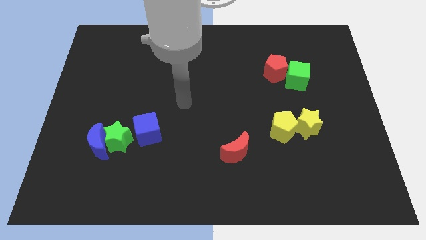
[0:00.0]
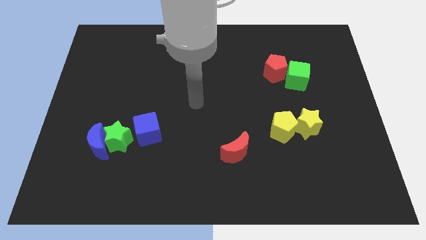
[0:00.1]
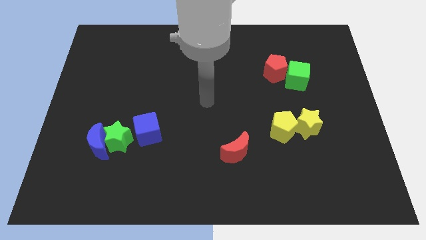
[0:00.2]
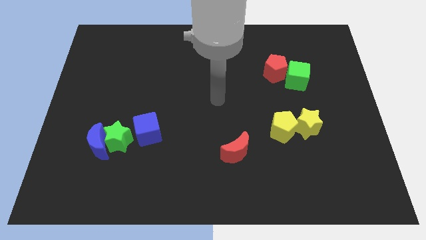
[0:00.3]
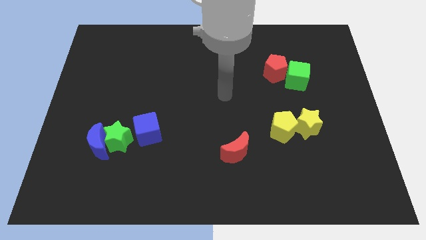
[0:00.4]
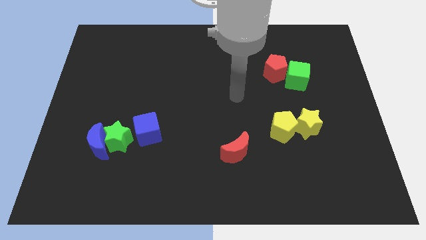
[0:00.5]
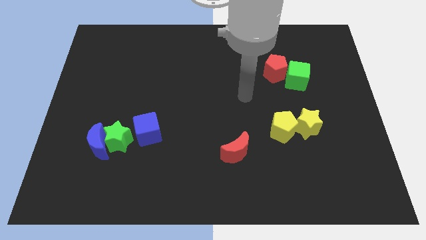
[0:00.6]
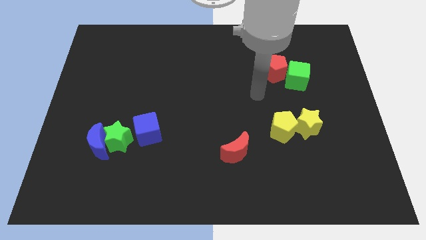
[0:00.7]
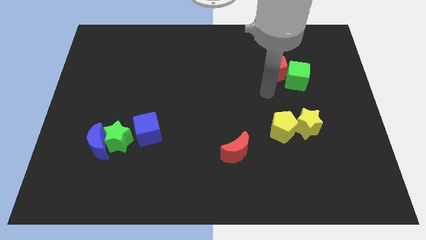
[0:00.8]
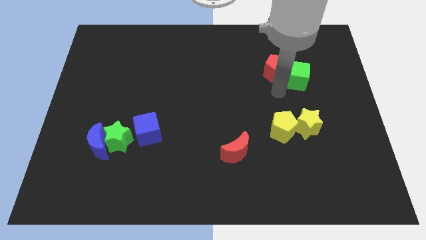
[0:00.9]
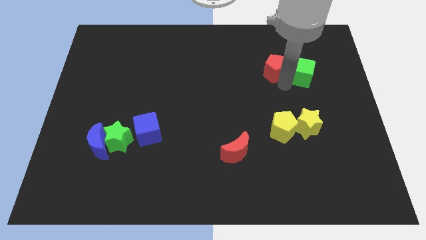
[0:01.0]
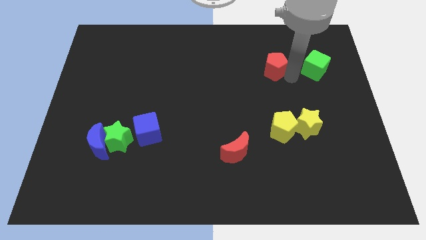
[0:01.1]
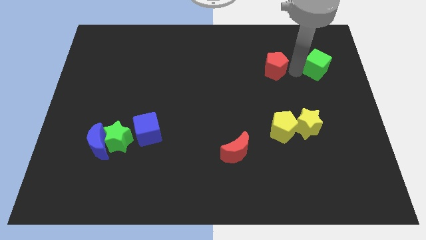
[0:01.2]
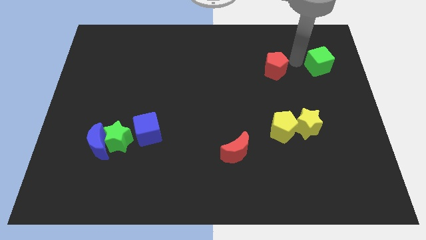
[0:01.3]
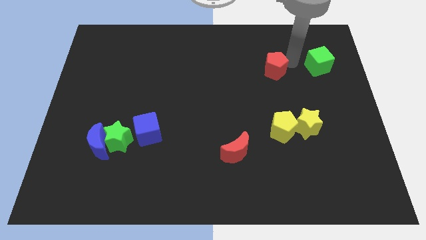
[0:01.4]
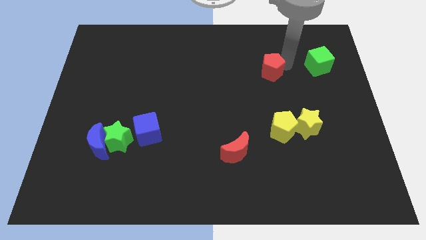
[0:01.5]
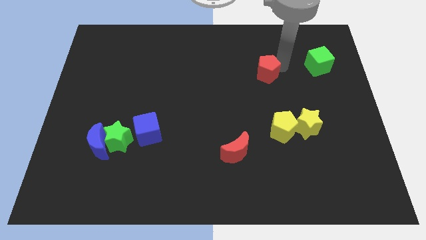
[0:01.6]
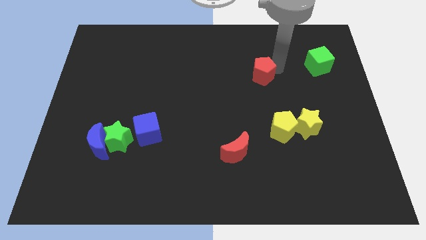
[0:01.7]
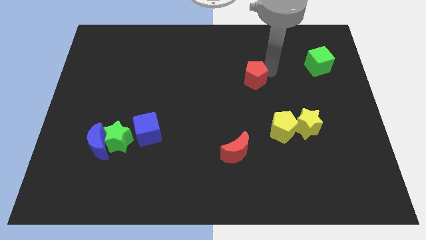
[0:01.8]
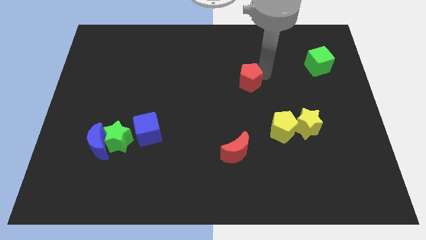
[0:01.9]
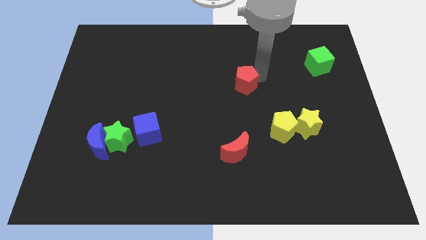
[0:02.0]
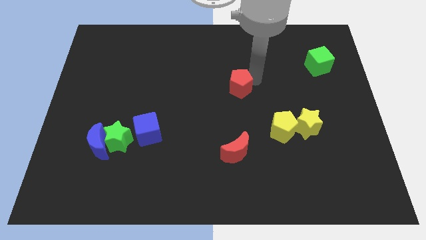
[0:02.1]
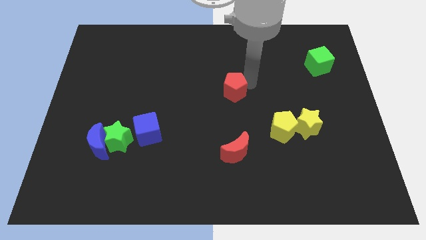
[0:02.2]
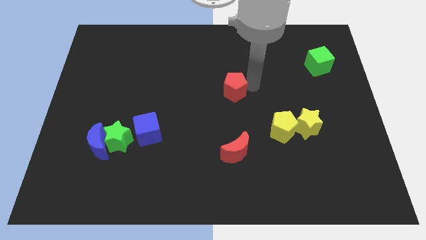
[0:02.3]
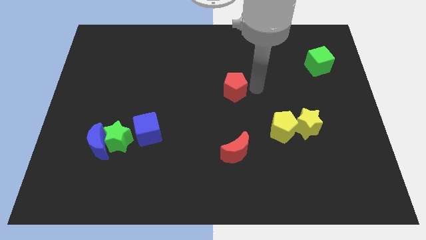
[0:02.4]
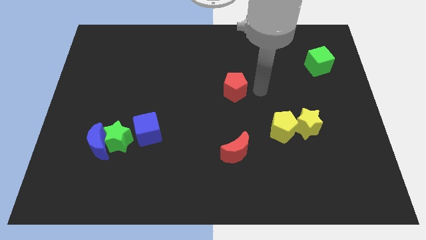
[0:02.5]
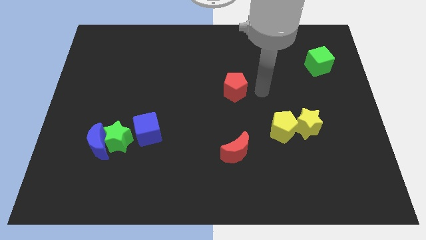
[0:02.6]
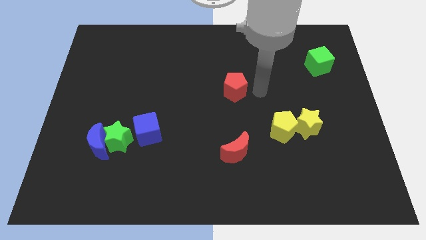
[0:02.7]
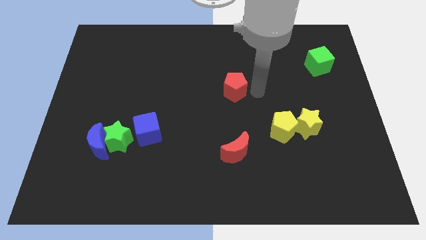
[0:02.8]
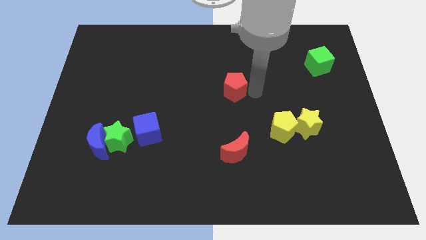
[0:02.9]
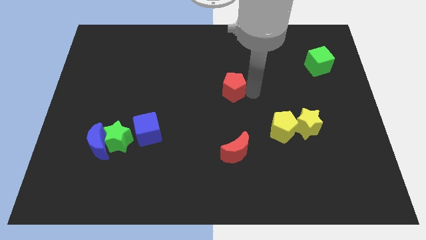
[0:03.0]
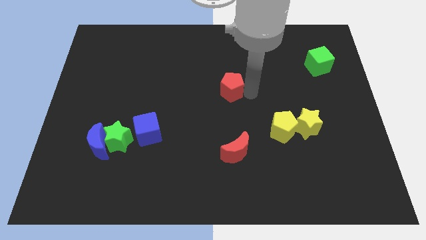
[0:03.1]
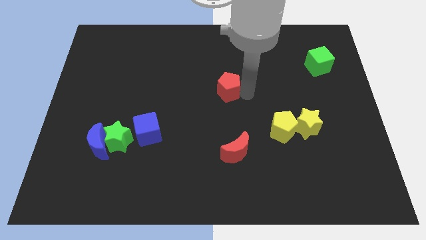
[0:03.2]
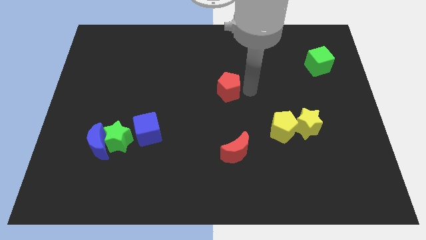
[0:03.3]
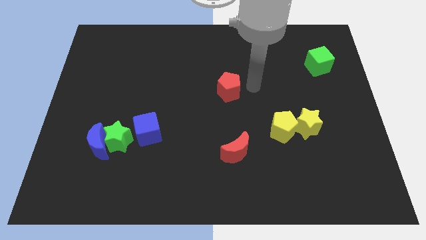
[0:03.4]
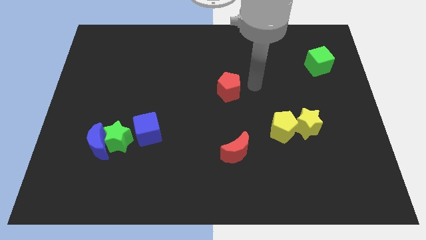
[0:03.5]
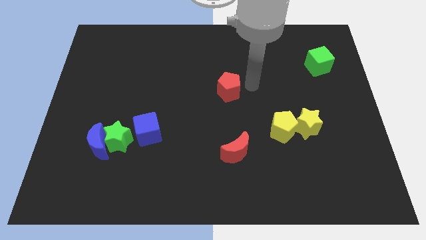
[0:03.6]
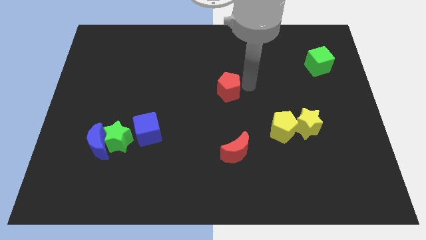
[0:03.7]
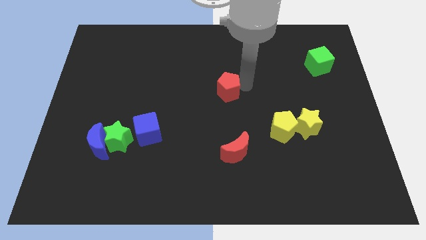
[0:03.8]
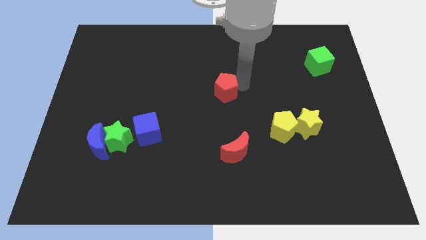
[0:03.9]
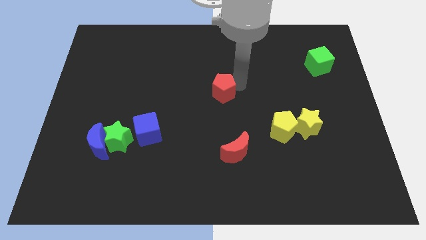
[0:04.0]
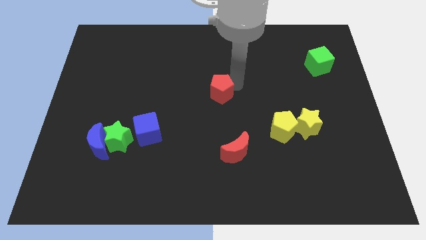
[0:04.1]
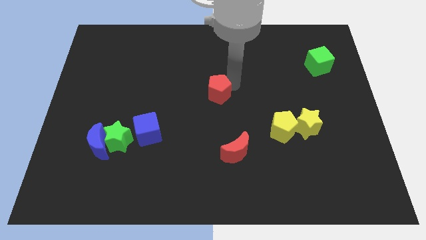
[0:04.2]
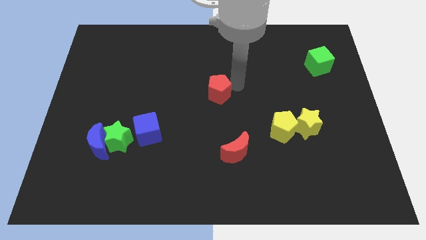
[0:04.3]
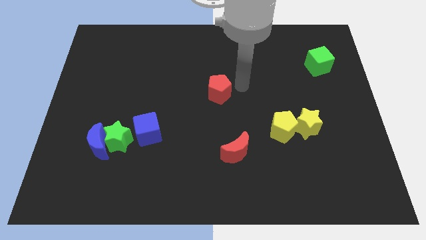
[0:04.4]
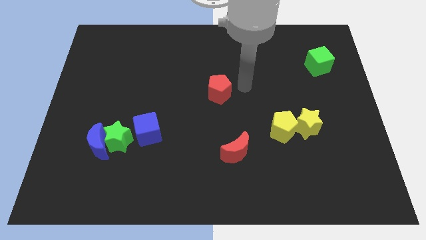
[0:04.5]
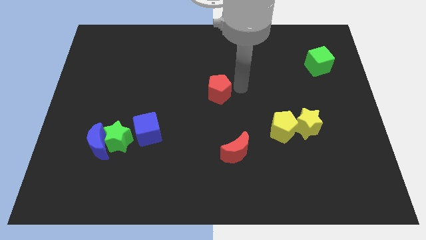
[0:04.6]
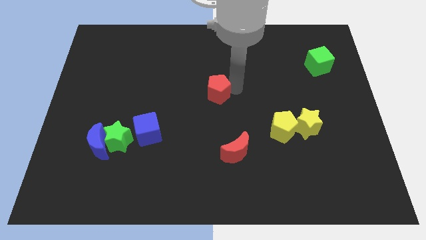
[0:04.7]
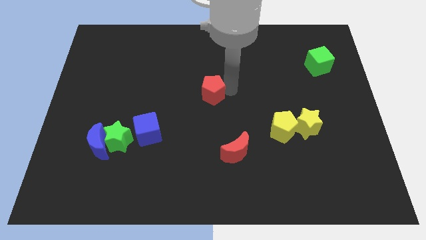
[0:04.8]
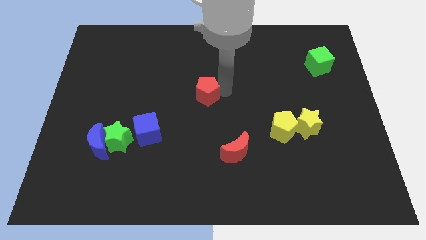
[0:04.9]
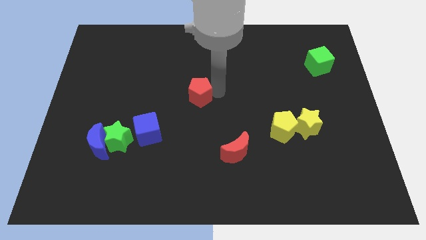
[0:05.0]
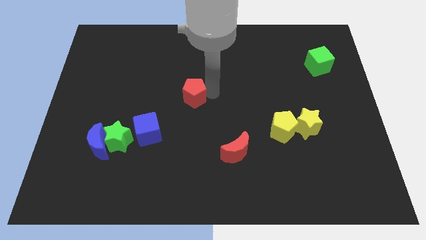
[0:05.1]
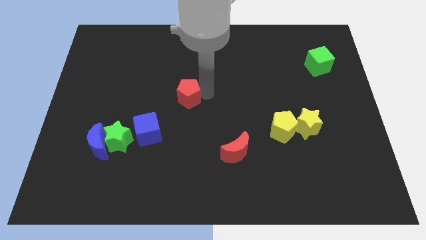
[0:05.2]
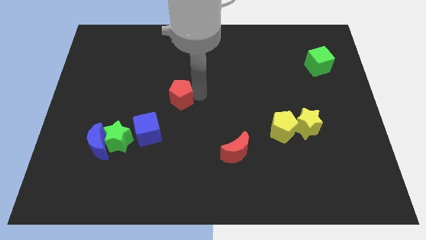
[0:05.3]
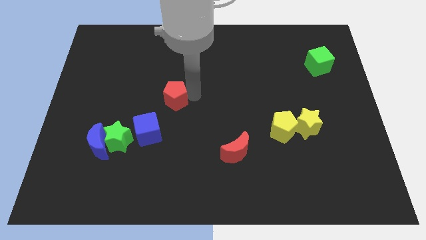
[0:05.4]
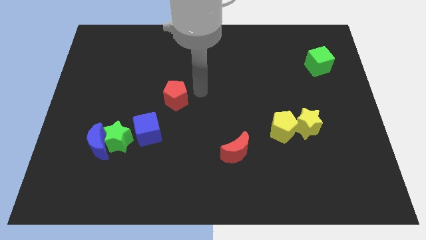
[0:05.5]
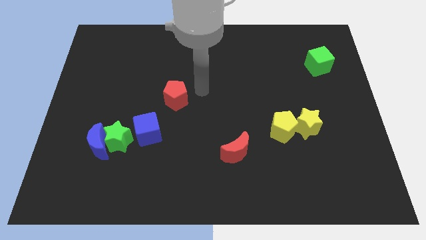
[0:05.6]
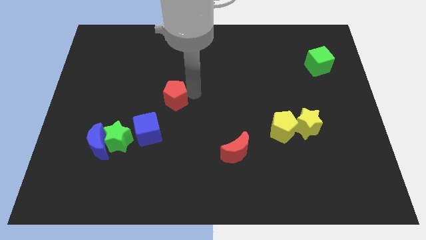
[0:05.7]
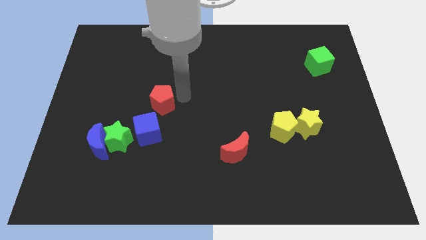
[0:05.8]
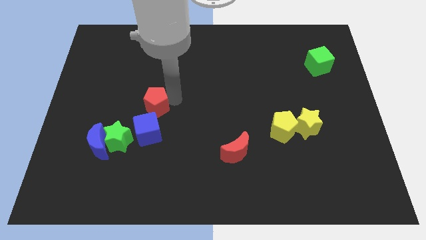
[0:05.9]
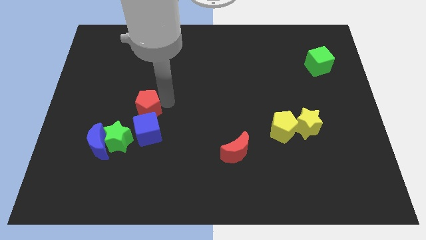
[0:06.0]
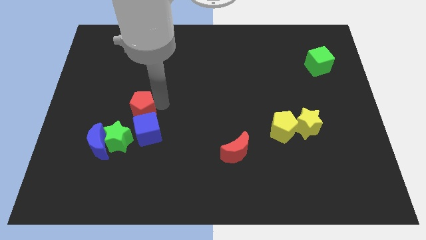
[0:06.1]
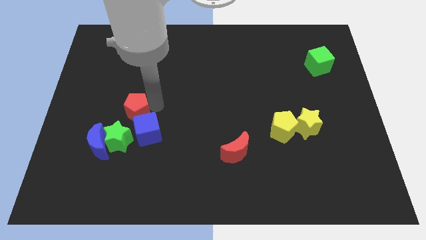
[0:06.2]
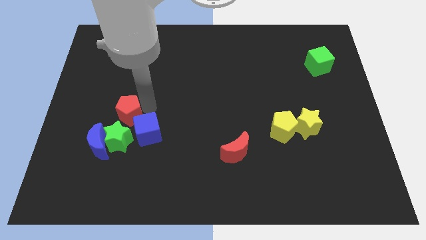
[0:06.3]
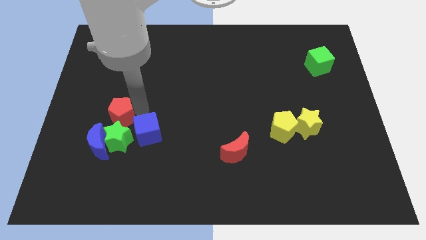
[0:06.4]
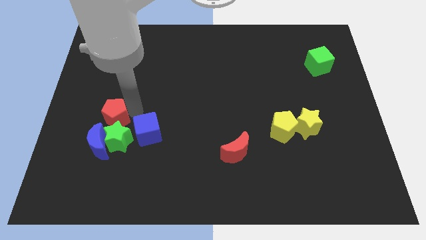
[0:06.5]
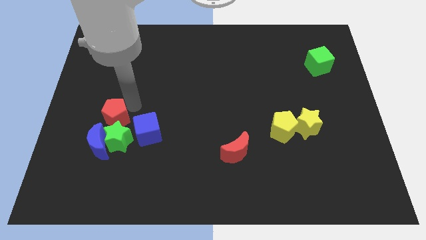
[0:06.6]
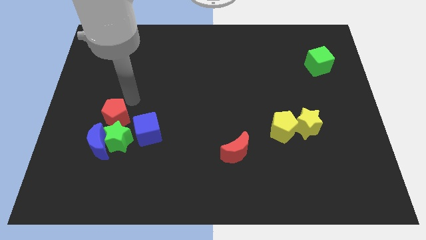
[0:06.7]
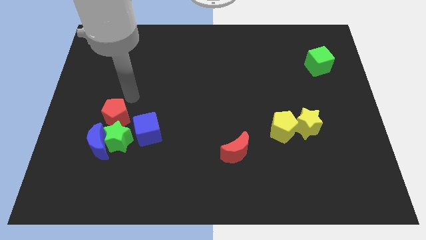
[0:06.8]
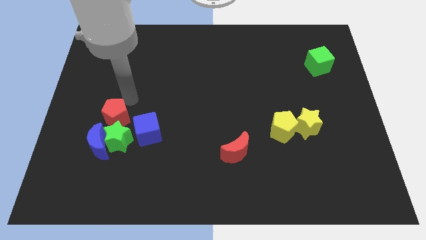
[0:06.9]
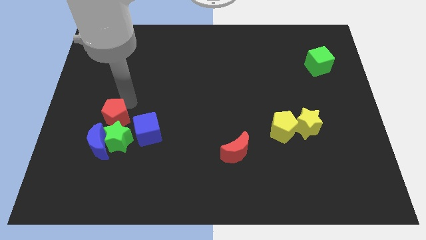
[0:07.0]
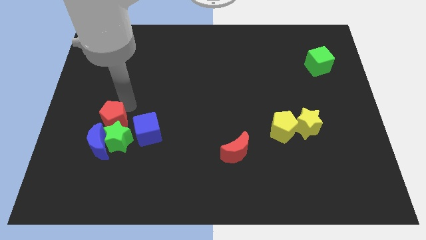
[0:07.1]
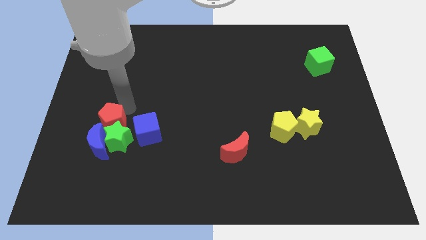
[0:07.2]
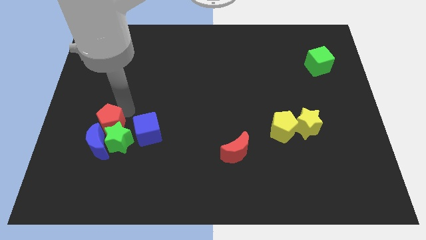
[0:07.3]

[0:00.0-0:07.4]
move the red pentagon towards the blue moon

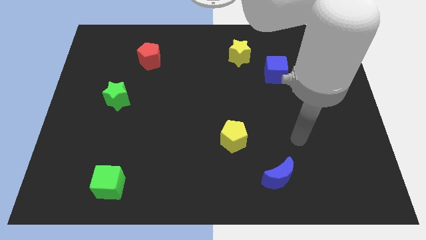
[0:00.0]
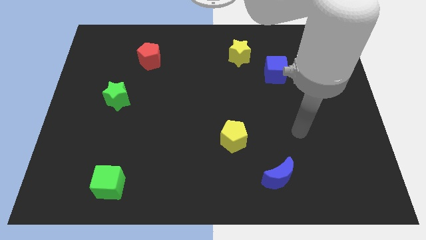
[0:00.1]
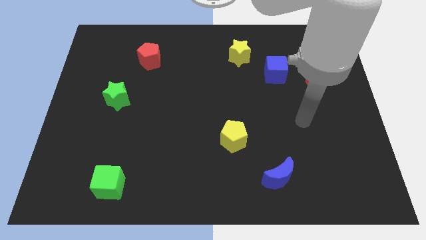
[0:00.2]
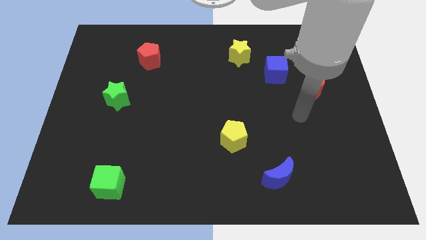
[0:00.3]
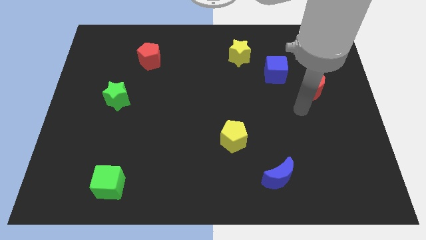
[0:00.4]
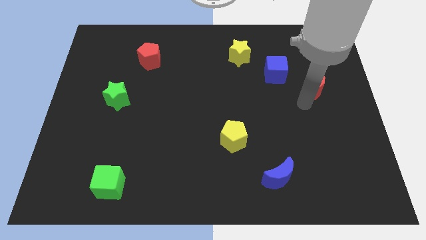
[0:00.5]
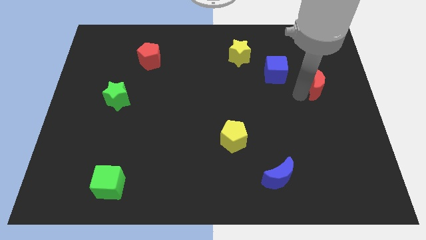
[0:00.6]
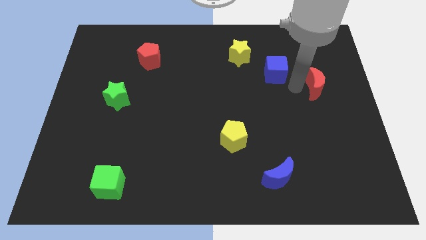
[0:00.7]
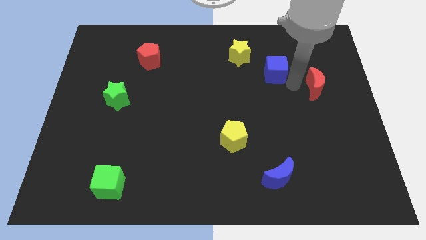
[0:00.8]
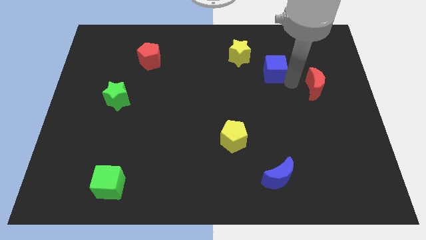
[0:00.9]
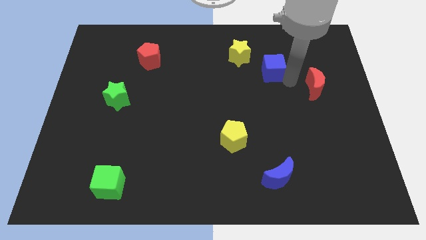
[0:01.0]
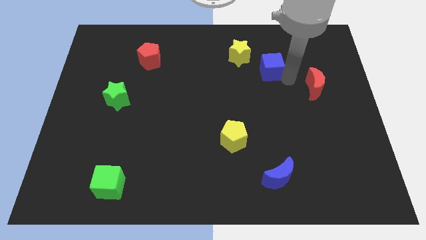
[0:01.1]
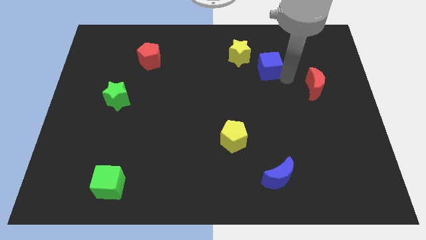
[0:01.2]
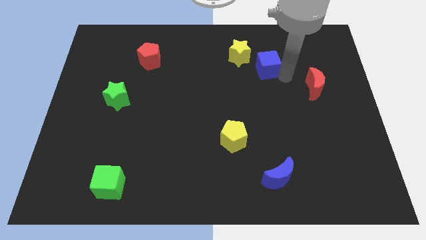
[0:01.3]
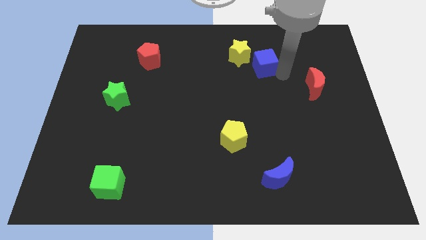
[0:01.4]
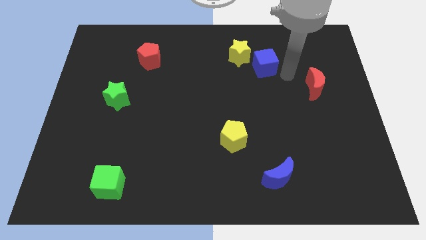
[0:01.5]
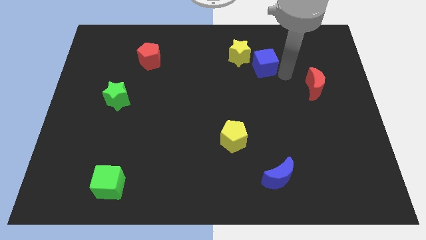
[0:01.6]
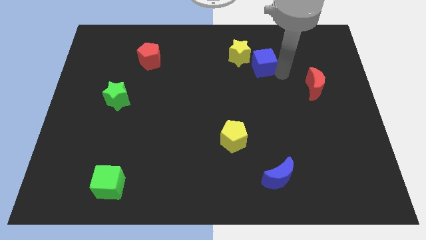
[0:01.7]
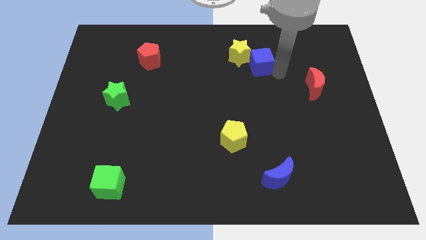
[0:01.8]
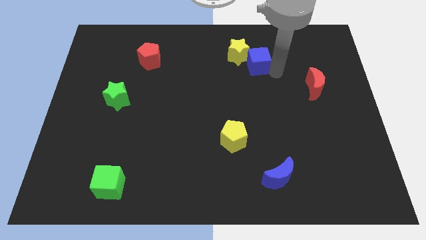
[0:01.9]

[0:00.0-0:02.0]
put the blue cube to the yellow star
